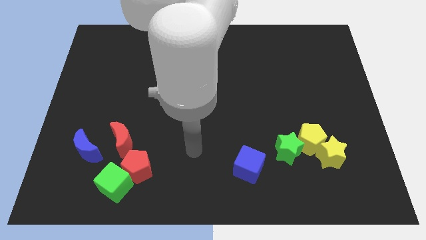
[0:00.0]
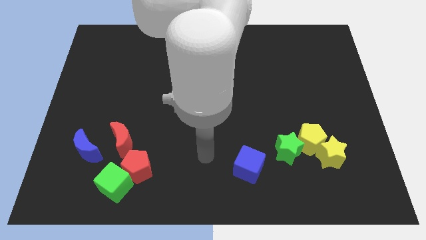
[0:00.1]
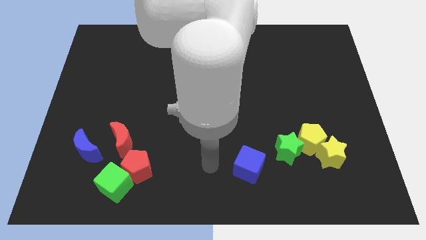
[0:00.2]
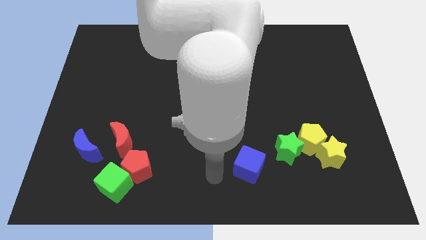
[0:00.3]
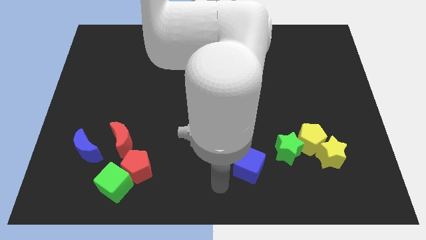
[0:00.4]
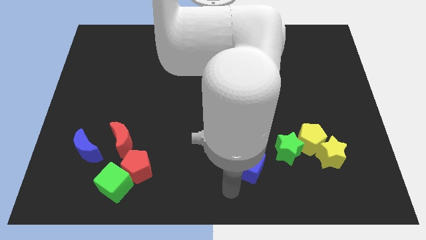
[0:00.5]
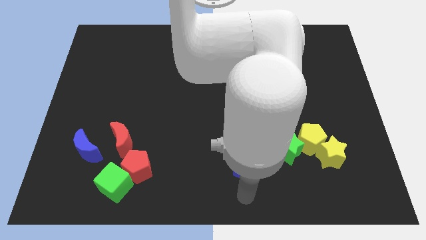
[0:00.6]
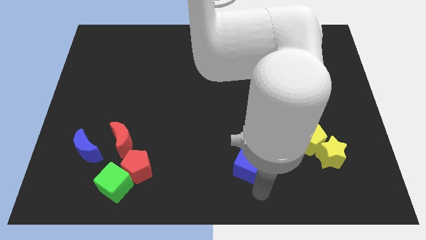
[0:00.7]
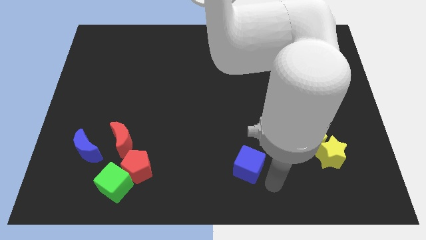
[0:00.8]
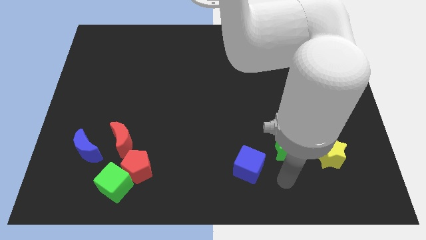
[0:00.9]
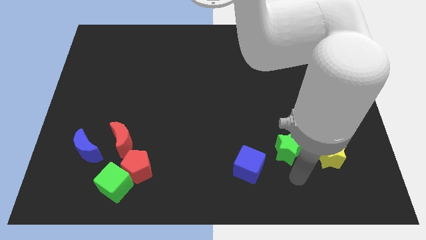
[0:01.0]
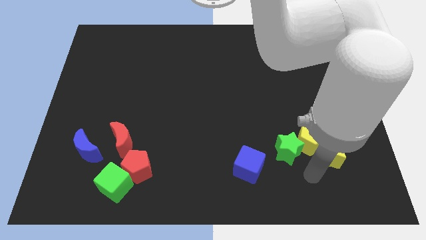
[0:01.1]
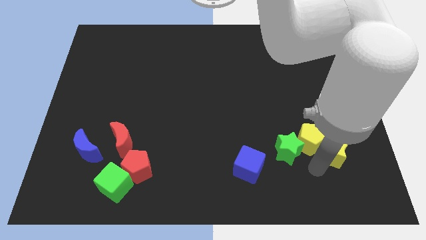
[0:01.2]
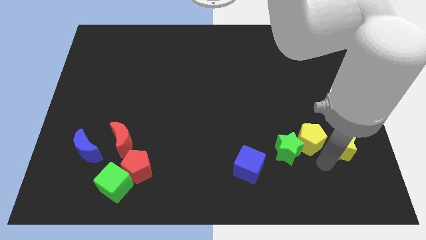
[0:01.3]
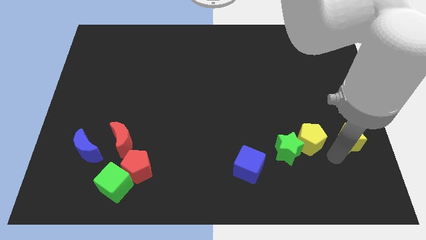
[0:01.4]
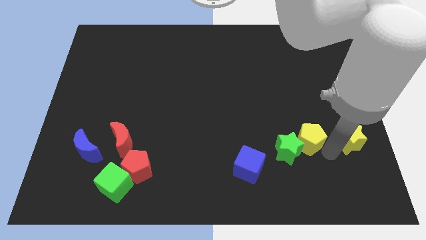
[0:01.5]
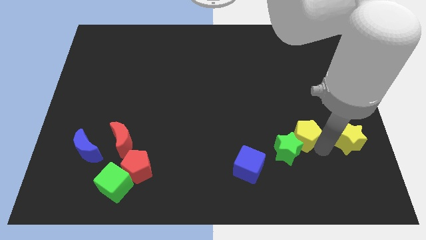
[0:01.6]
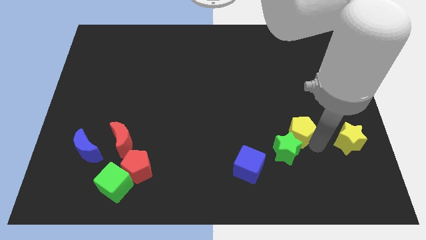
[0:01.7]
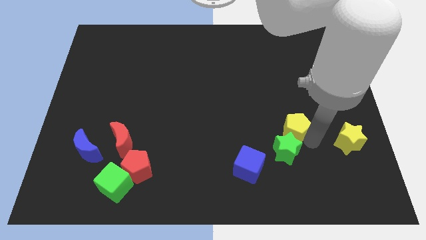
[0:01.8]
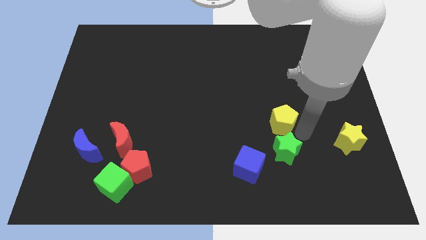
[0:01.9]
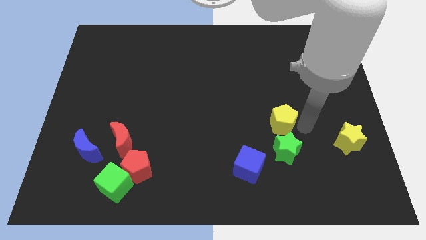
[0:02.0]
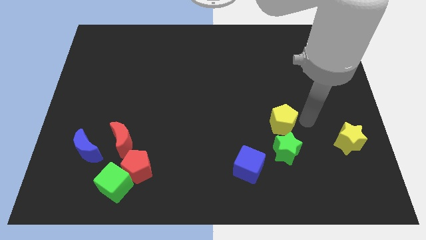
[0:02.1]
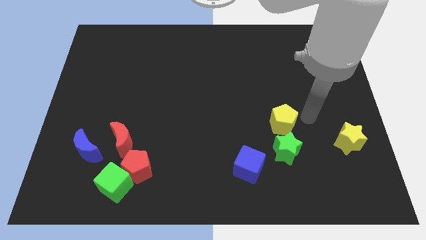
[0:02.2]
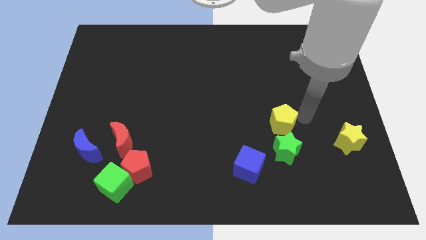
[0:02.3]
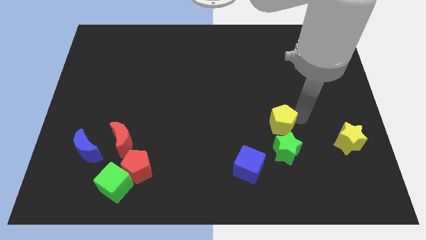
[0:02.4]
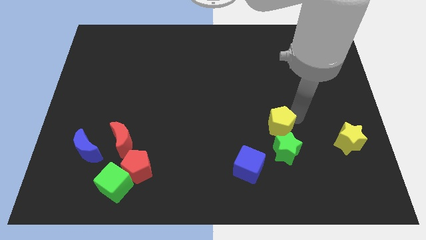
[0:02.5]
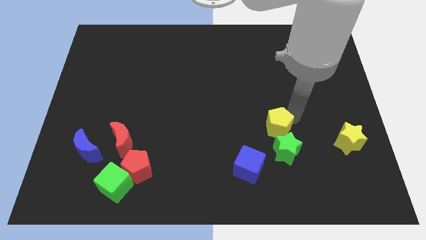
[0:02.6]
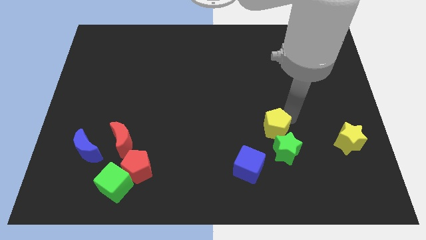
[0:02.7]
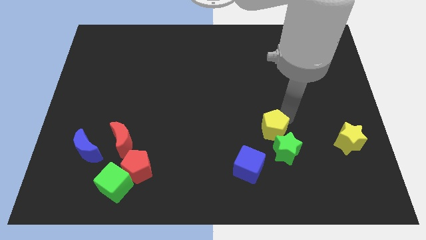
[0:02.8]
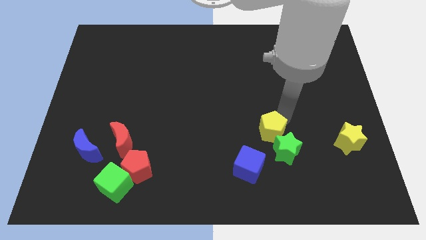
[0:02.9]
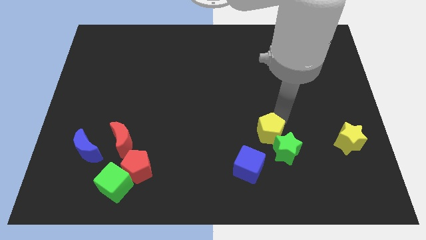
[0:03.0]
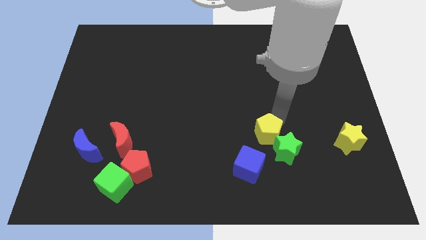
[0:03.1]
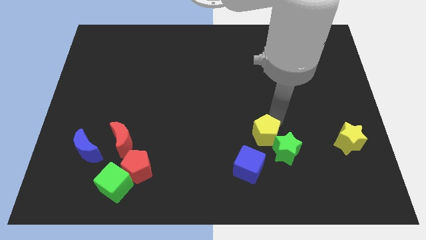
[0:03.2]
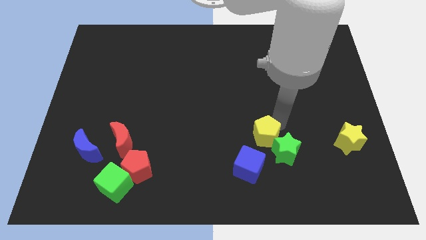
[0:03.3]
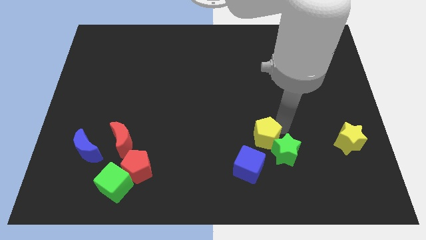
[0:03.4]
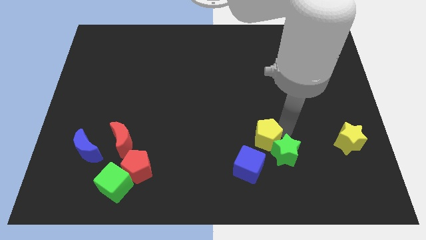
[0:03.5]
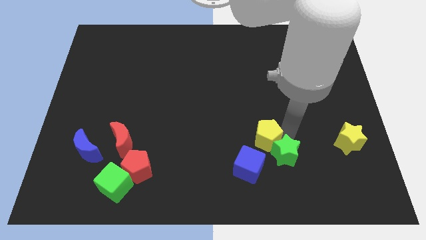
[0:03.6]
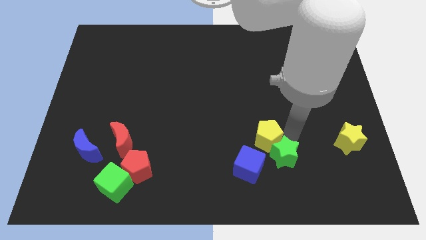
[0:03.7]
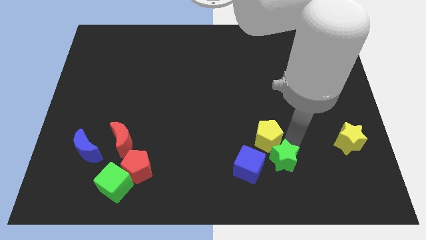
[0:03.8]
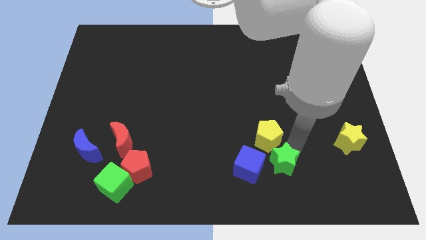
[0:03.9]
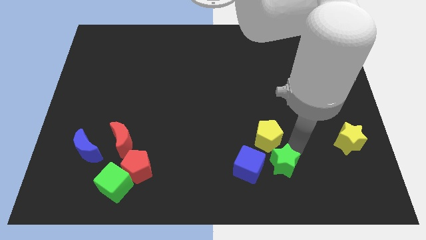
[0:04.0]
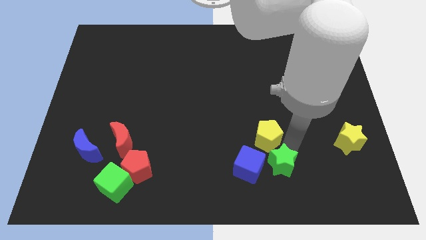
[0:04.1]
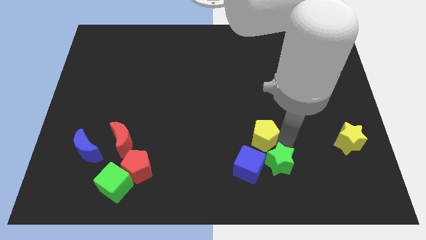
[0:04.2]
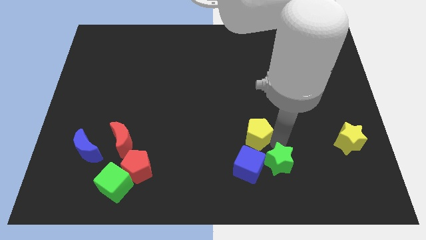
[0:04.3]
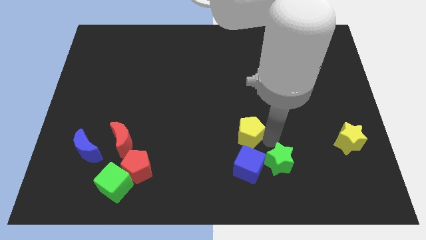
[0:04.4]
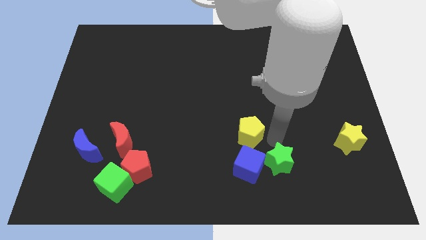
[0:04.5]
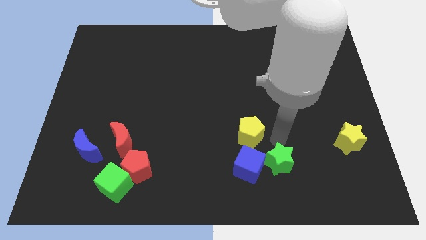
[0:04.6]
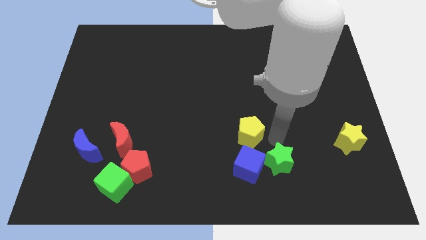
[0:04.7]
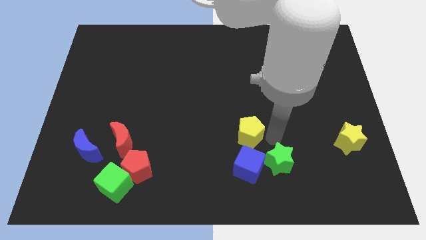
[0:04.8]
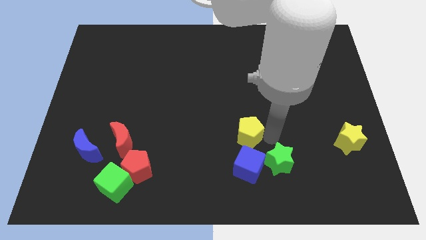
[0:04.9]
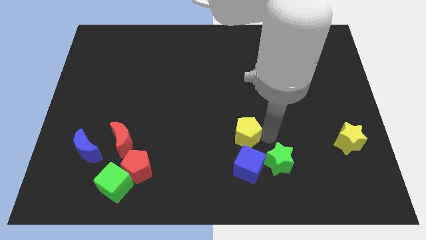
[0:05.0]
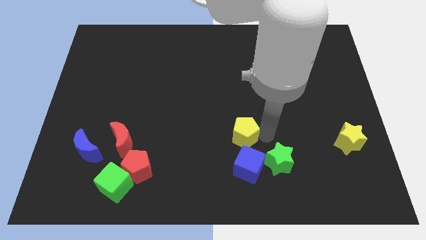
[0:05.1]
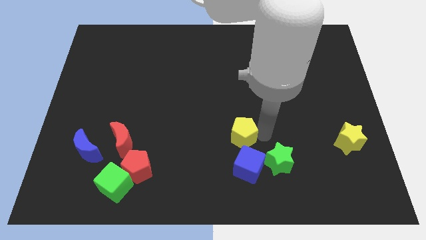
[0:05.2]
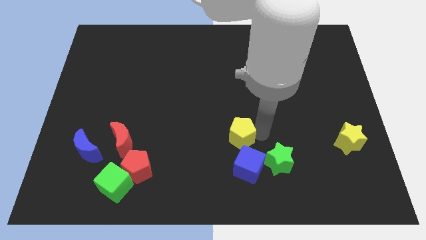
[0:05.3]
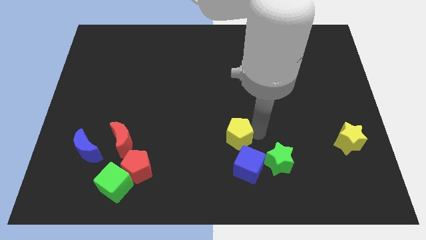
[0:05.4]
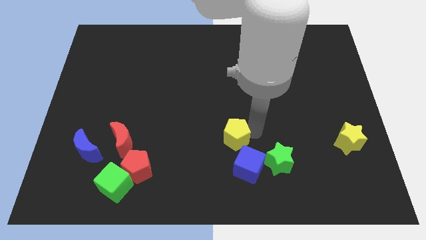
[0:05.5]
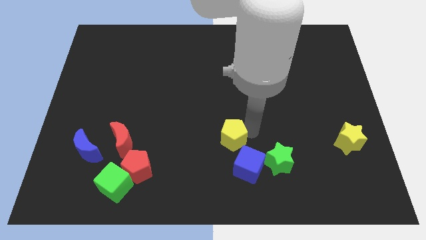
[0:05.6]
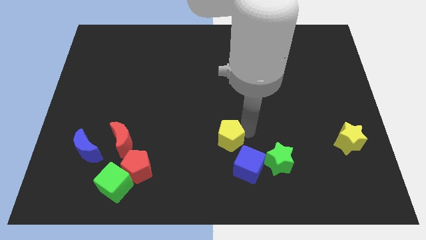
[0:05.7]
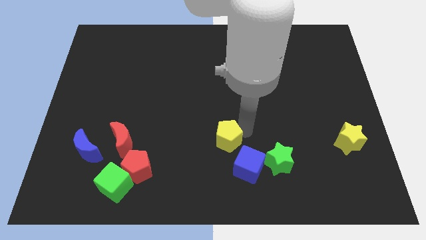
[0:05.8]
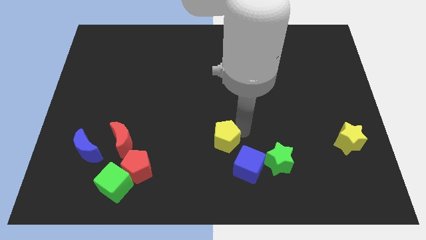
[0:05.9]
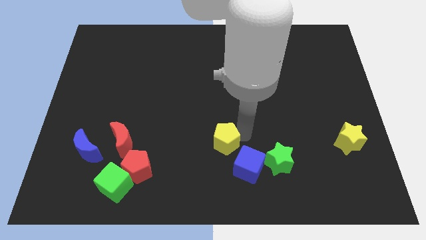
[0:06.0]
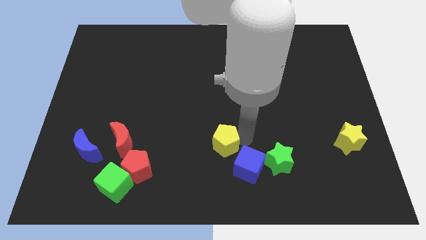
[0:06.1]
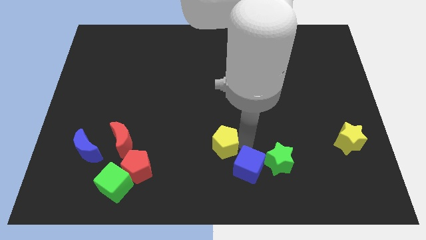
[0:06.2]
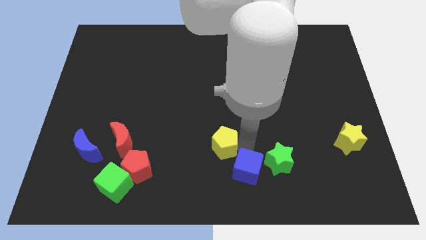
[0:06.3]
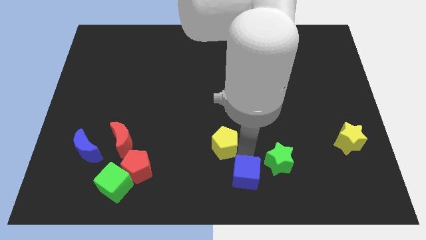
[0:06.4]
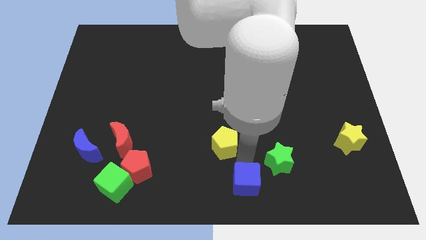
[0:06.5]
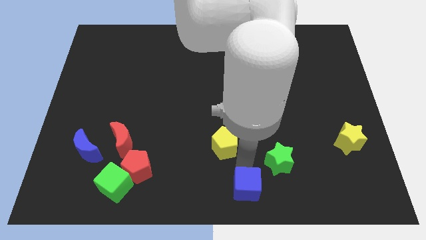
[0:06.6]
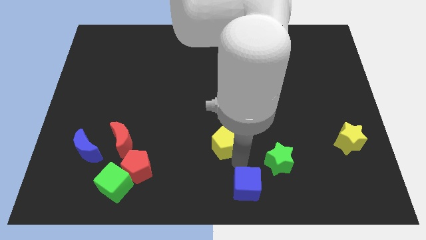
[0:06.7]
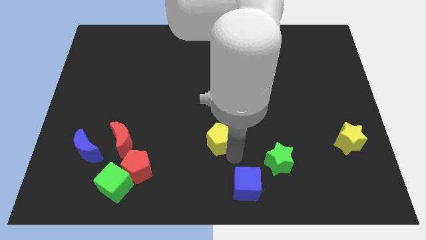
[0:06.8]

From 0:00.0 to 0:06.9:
move the yellow pentagon to the left

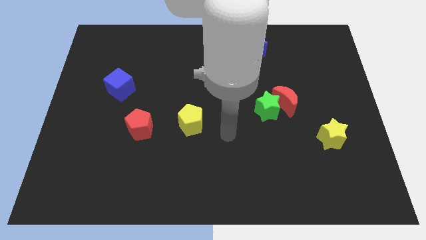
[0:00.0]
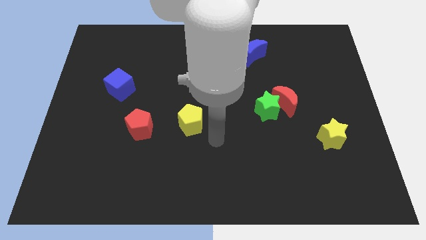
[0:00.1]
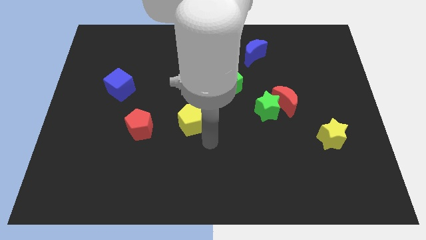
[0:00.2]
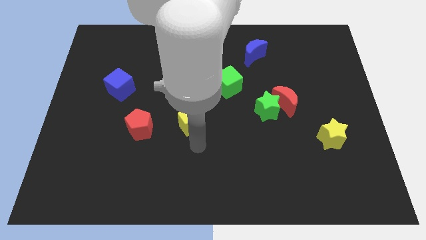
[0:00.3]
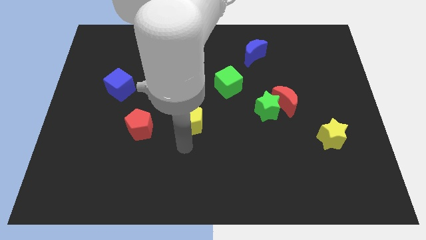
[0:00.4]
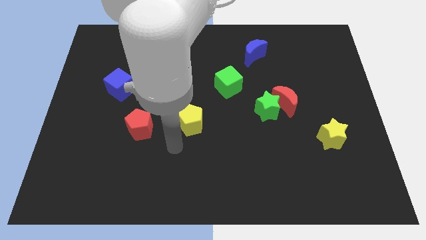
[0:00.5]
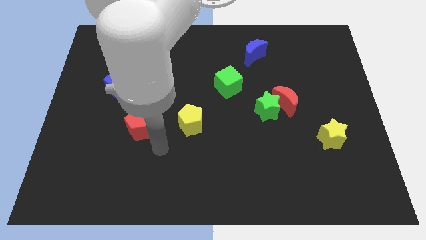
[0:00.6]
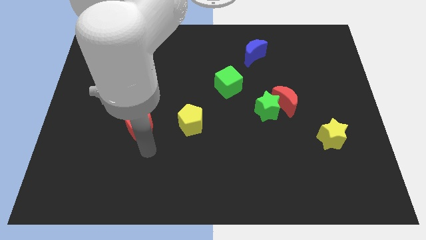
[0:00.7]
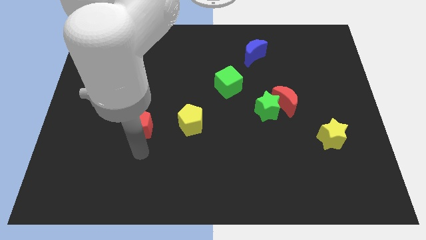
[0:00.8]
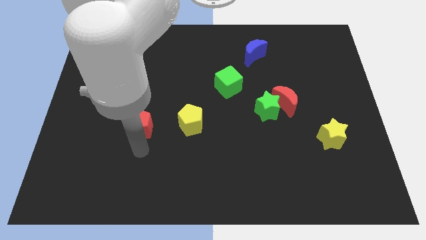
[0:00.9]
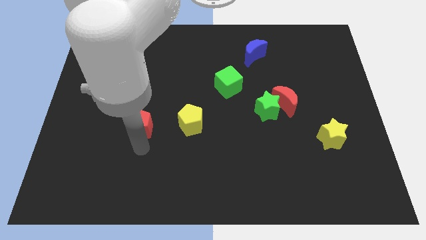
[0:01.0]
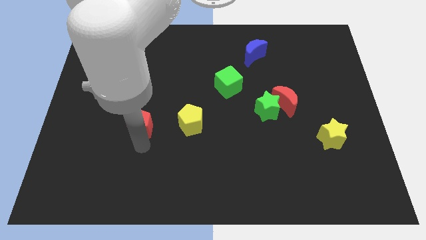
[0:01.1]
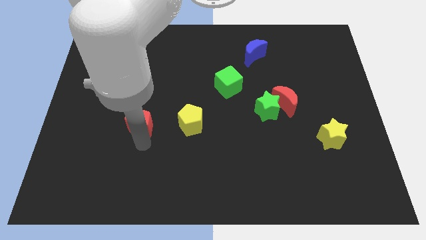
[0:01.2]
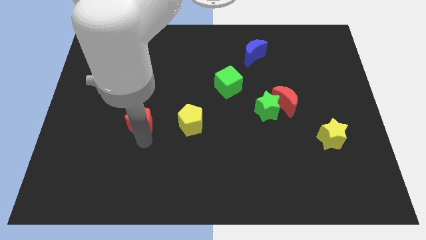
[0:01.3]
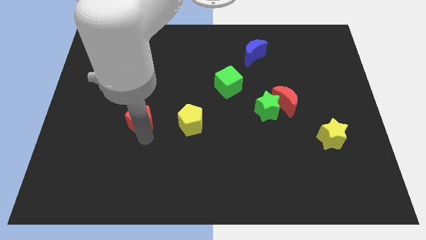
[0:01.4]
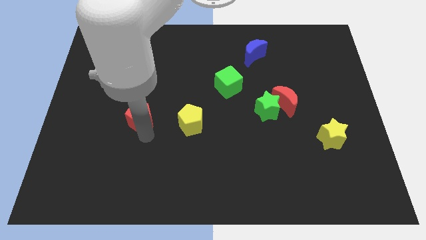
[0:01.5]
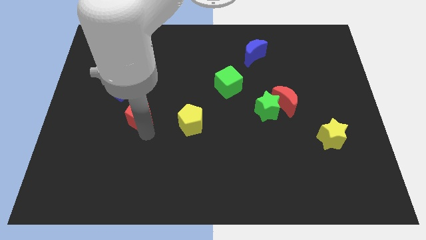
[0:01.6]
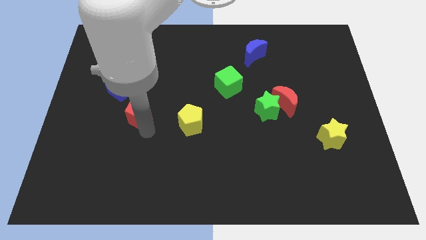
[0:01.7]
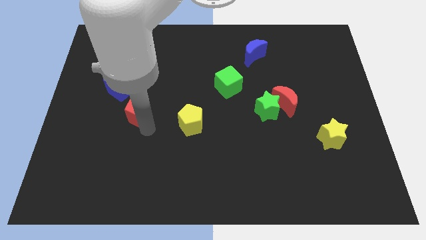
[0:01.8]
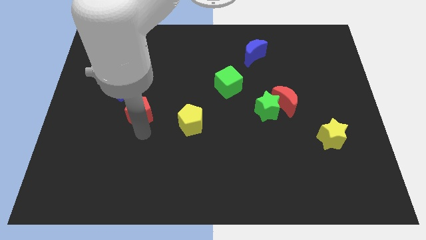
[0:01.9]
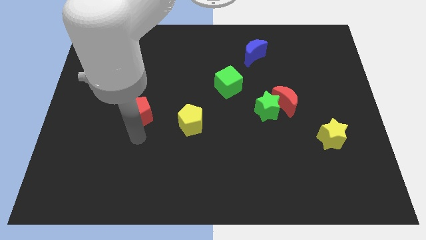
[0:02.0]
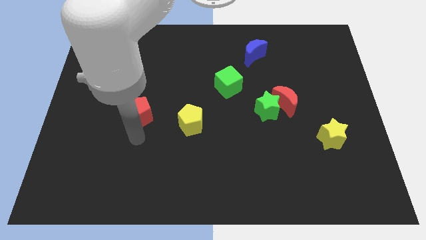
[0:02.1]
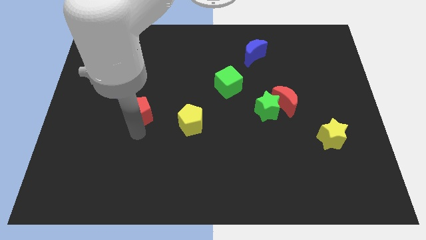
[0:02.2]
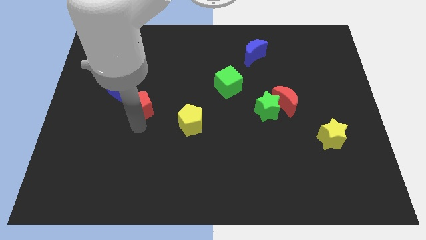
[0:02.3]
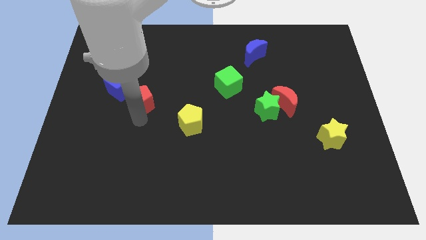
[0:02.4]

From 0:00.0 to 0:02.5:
push the red pentagon a little upwards
